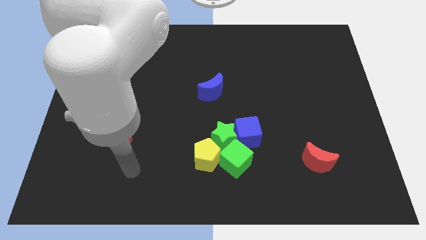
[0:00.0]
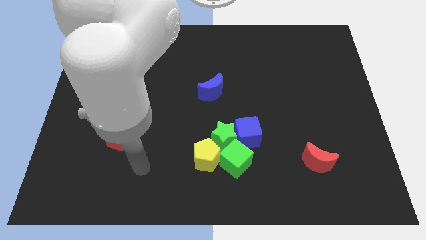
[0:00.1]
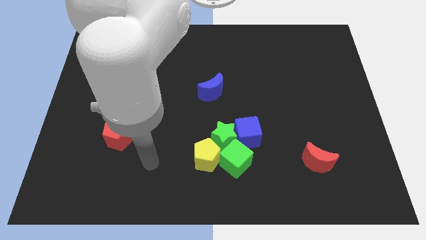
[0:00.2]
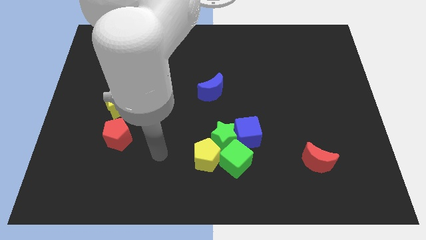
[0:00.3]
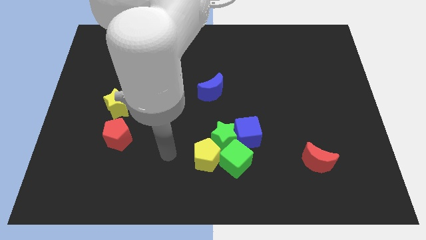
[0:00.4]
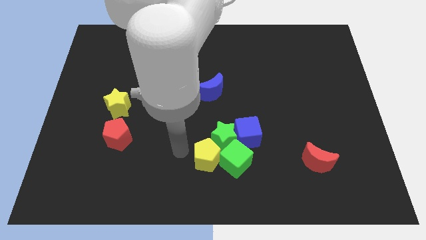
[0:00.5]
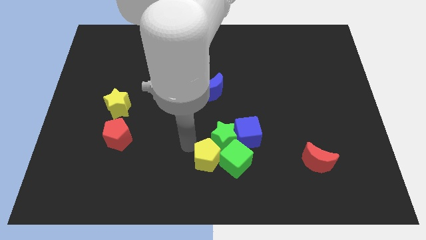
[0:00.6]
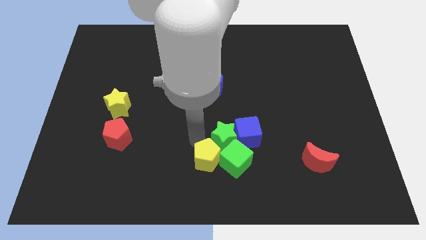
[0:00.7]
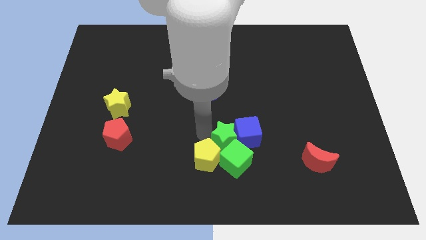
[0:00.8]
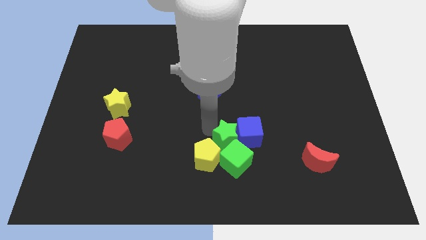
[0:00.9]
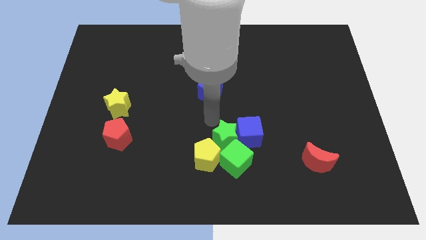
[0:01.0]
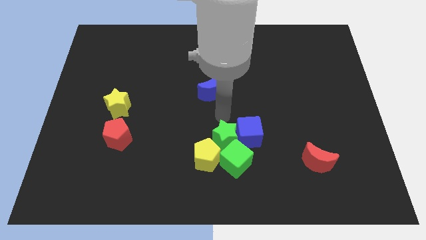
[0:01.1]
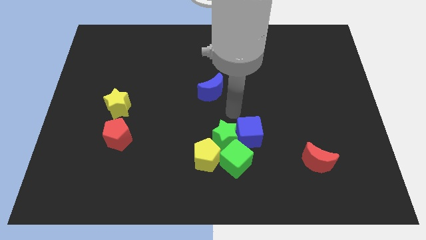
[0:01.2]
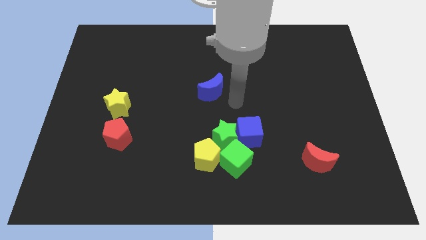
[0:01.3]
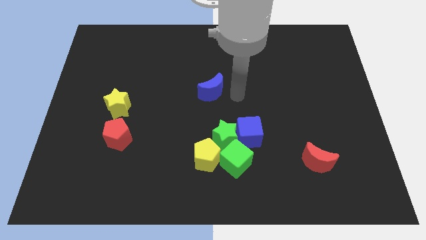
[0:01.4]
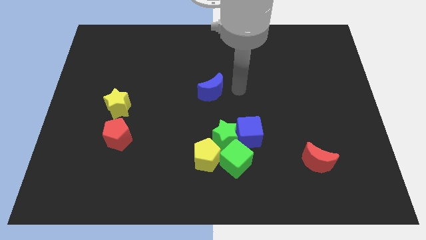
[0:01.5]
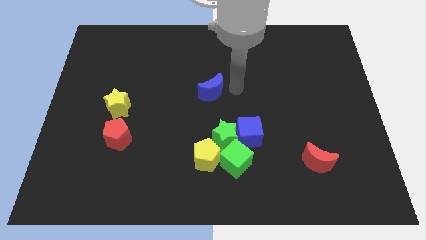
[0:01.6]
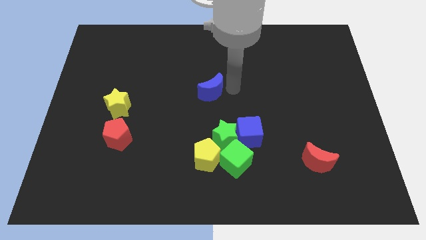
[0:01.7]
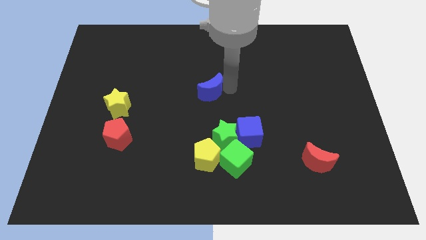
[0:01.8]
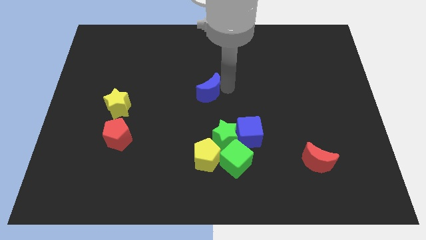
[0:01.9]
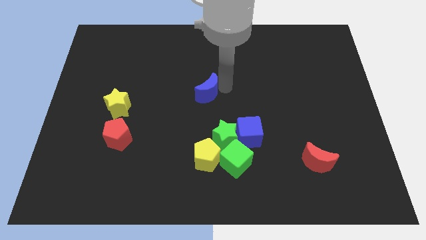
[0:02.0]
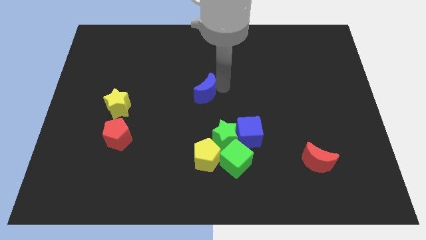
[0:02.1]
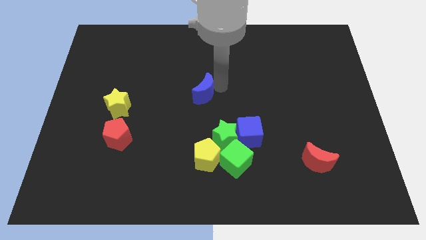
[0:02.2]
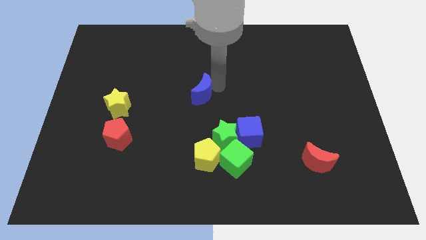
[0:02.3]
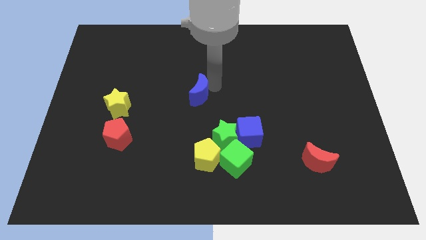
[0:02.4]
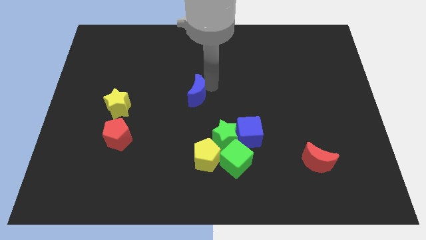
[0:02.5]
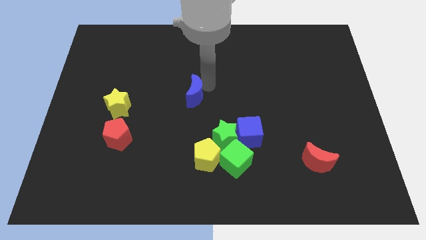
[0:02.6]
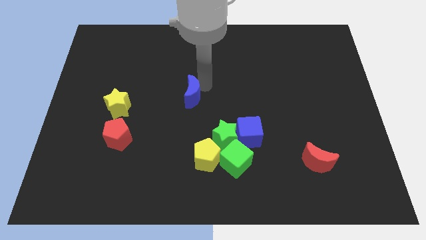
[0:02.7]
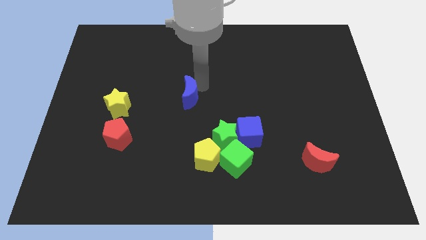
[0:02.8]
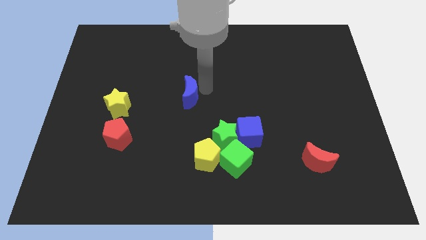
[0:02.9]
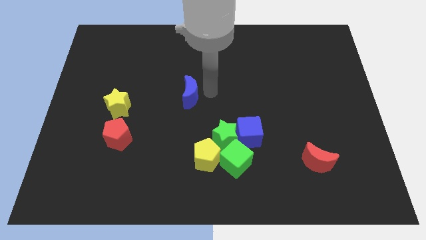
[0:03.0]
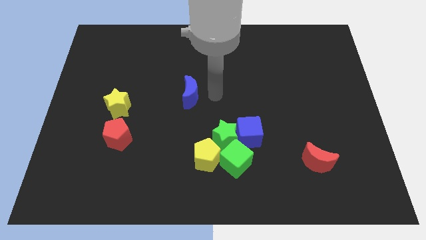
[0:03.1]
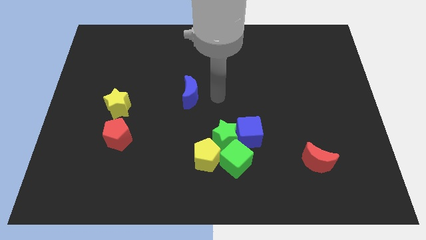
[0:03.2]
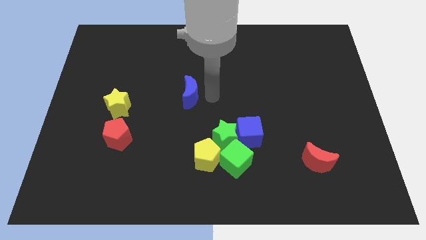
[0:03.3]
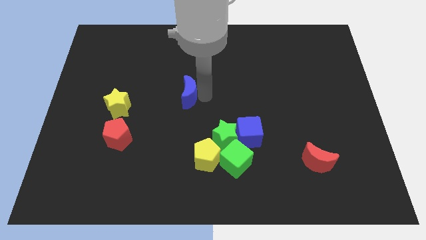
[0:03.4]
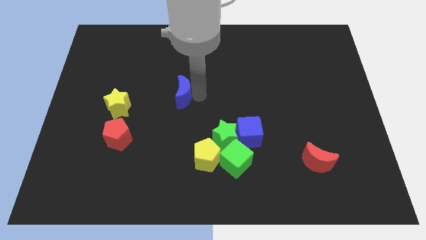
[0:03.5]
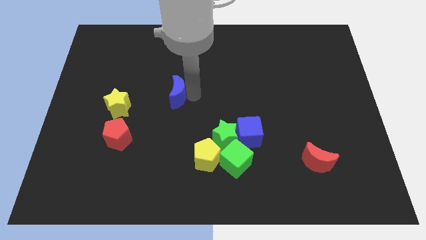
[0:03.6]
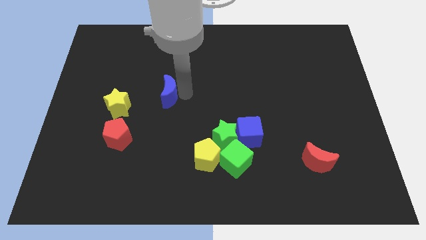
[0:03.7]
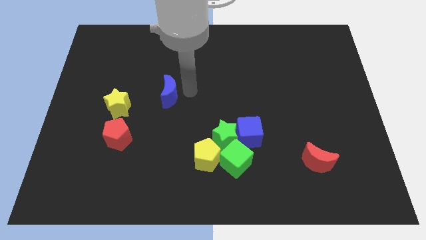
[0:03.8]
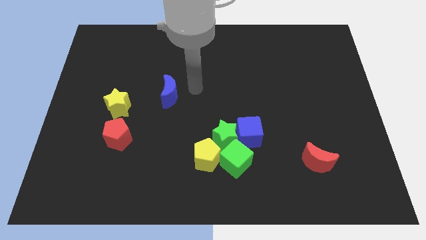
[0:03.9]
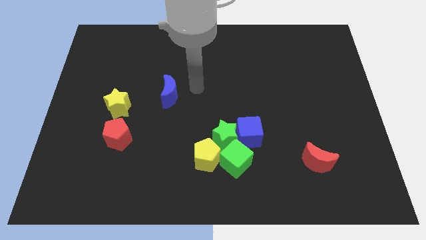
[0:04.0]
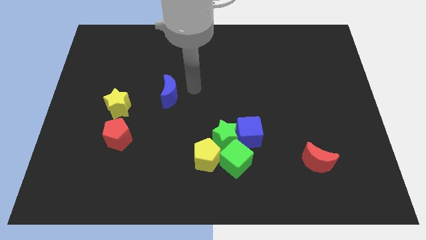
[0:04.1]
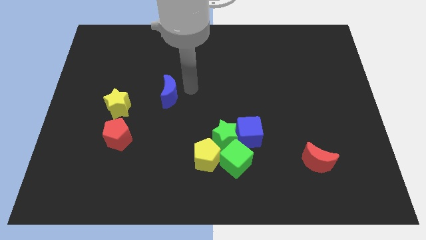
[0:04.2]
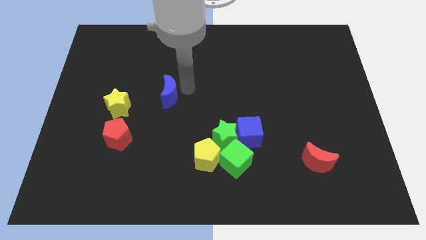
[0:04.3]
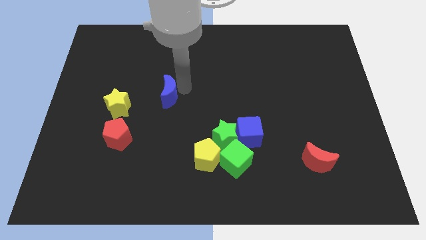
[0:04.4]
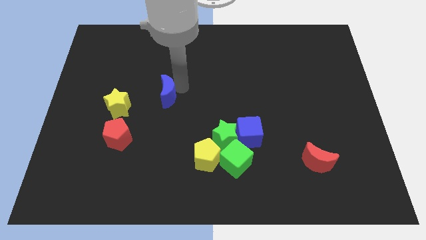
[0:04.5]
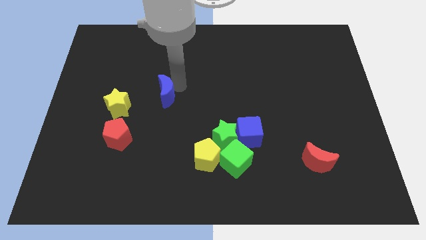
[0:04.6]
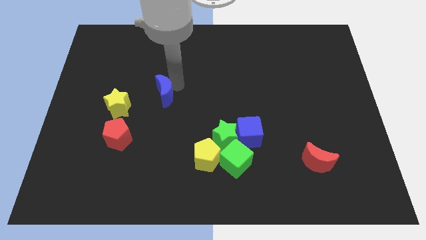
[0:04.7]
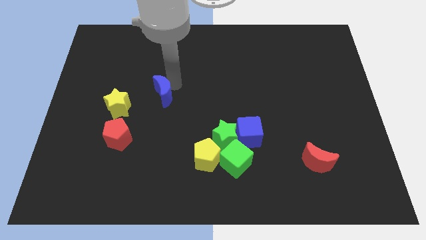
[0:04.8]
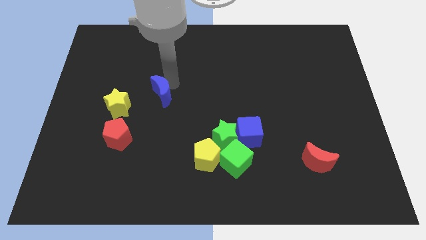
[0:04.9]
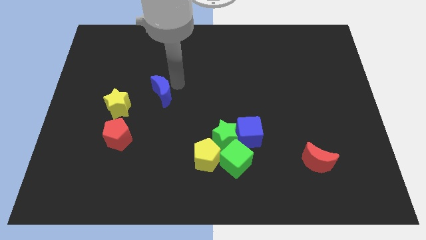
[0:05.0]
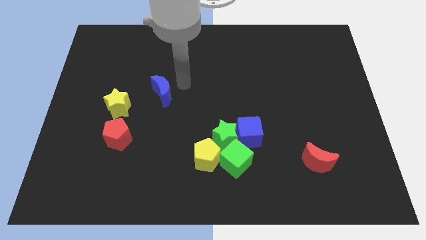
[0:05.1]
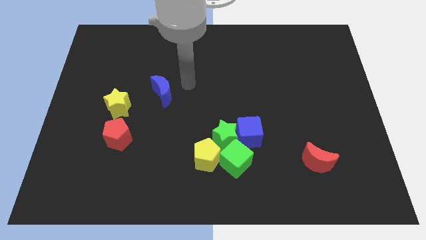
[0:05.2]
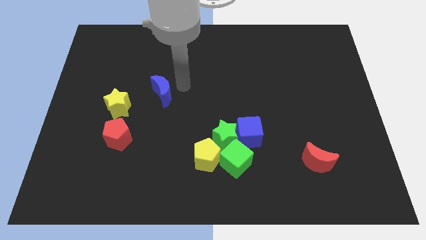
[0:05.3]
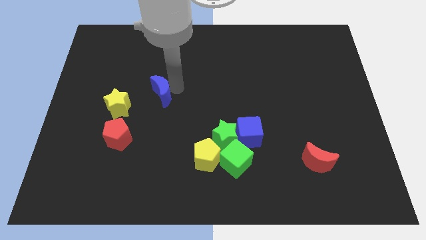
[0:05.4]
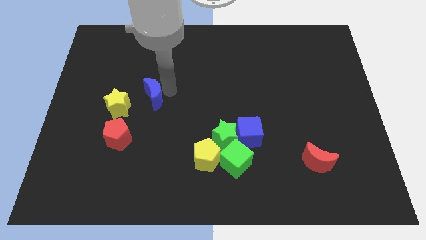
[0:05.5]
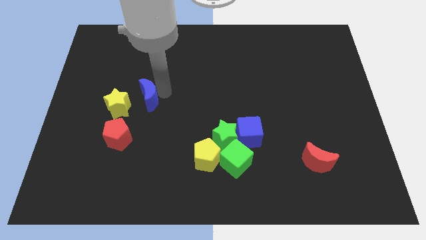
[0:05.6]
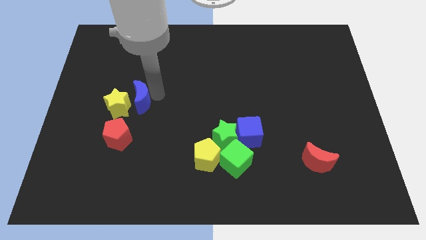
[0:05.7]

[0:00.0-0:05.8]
put the blue moon to the yellow star

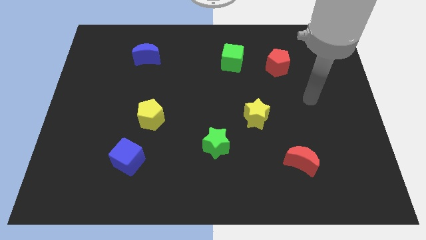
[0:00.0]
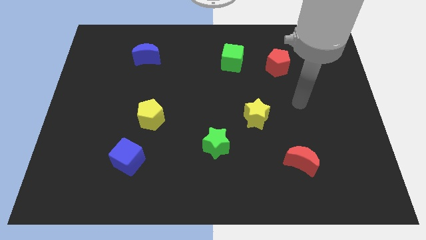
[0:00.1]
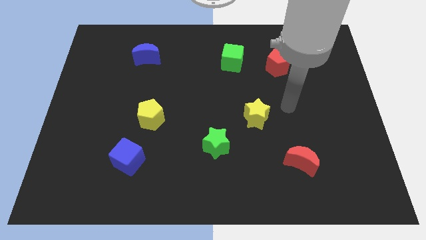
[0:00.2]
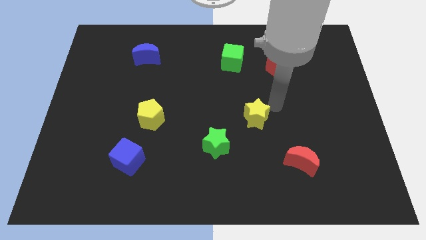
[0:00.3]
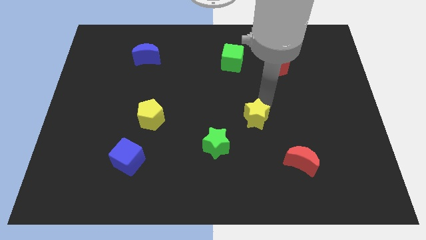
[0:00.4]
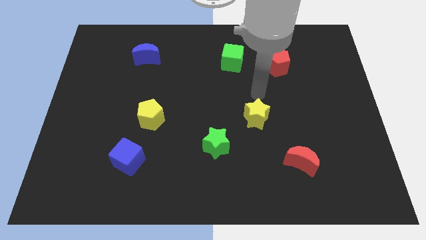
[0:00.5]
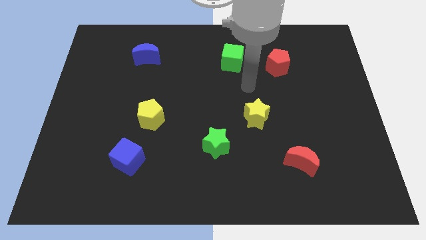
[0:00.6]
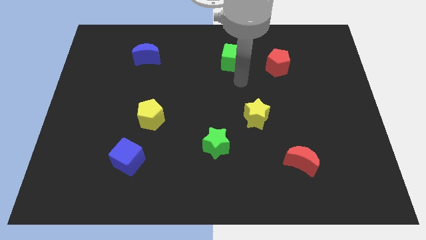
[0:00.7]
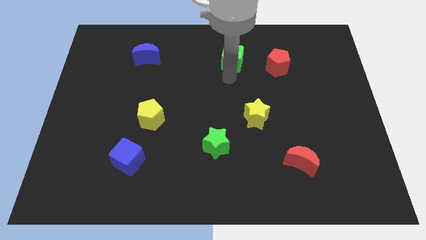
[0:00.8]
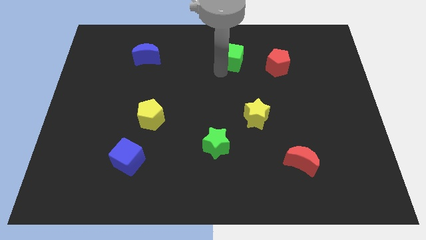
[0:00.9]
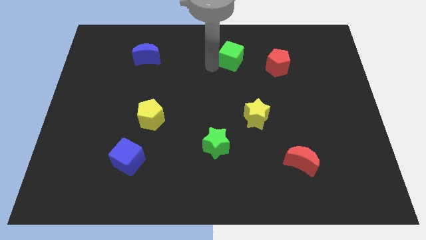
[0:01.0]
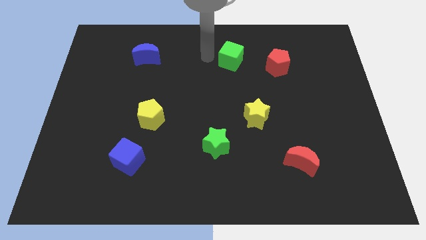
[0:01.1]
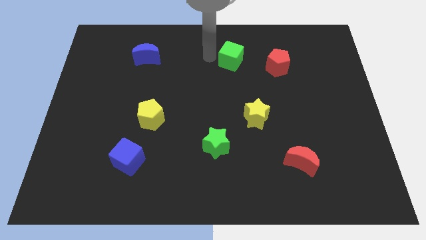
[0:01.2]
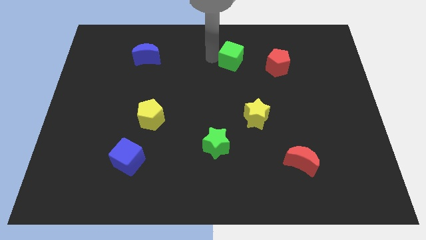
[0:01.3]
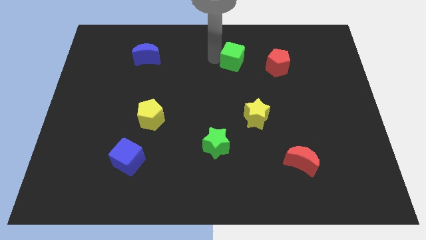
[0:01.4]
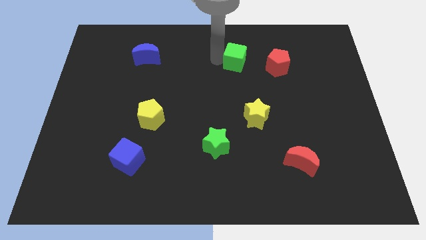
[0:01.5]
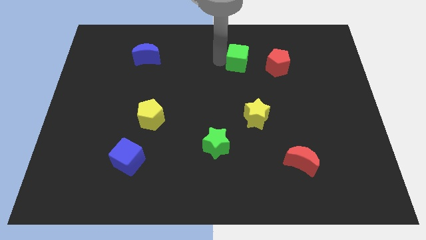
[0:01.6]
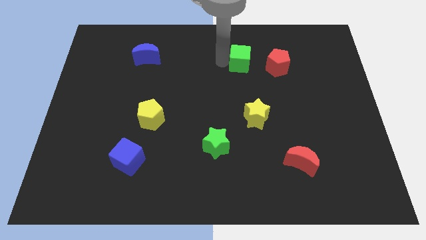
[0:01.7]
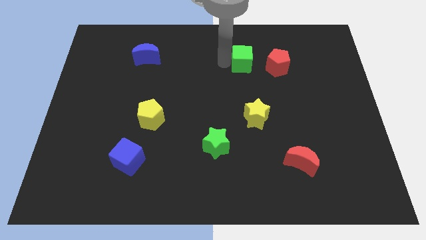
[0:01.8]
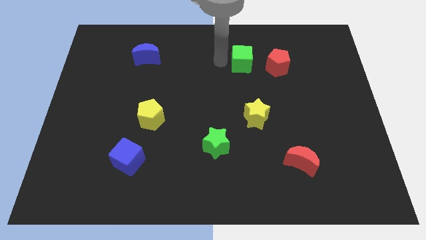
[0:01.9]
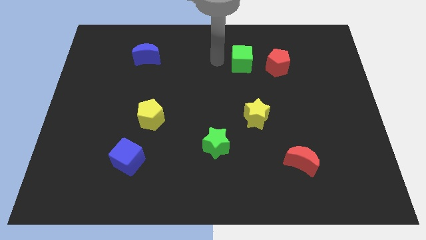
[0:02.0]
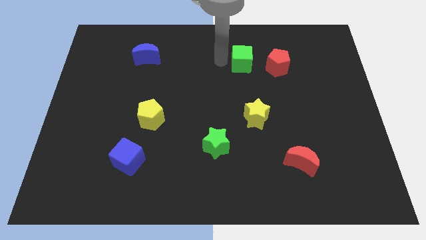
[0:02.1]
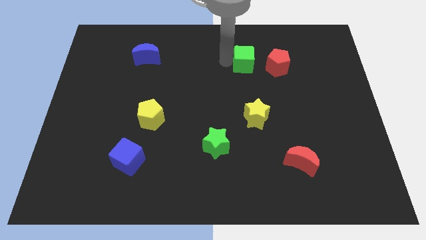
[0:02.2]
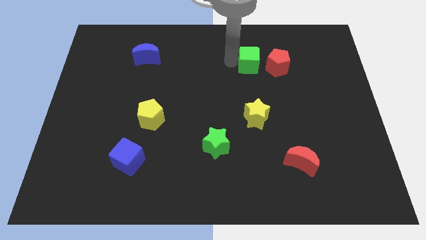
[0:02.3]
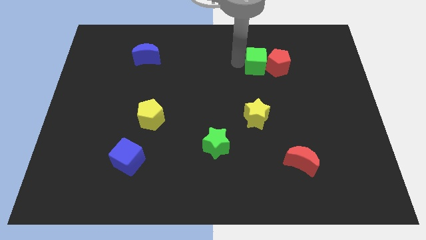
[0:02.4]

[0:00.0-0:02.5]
slide the green cube close to the red pentagon
